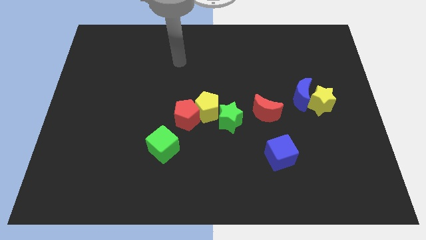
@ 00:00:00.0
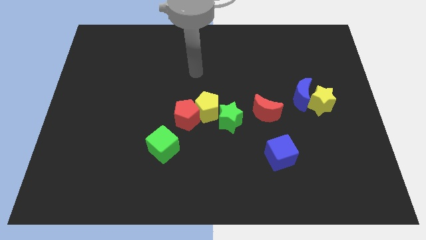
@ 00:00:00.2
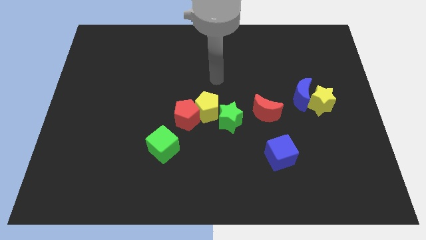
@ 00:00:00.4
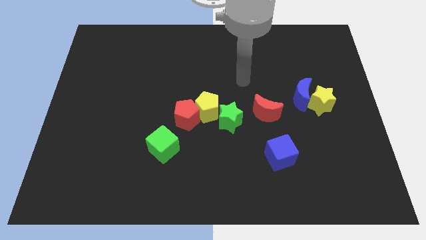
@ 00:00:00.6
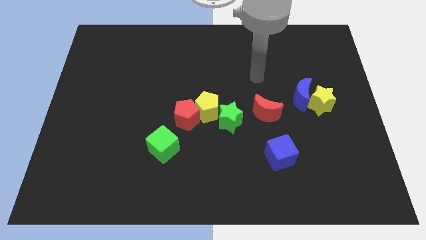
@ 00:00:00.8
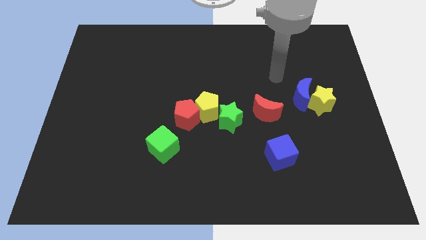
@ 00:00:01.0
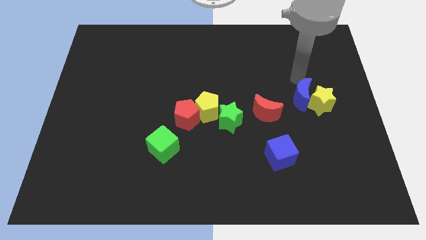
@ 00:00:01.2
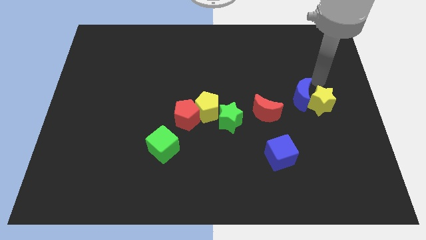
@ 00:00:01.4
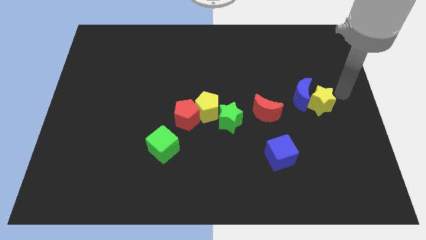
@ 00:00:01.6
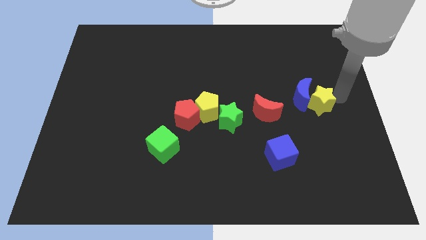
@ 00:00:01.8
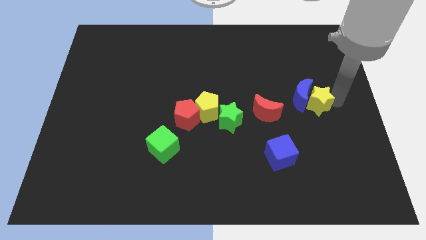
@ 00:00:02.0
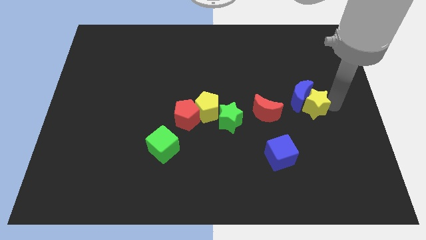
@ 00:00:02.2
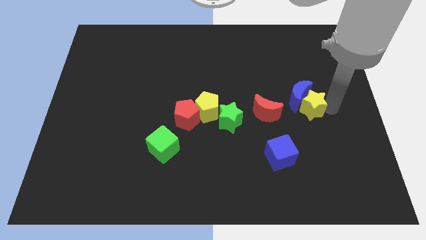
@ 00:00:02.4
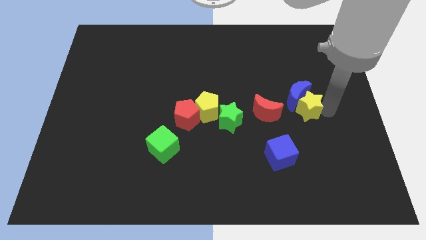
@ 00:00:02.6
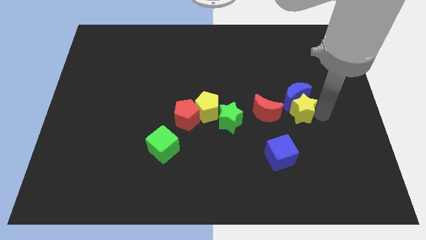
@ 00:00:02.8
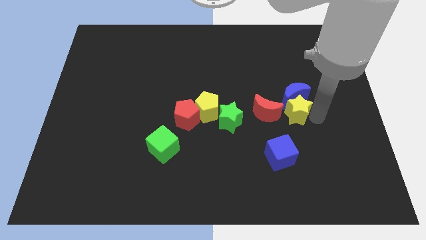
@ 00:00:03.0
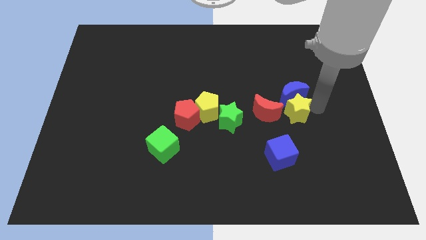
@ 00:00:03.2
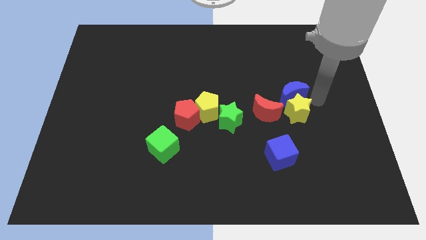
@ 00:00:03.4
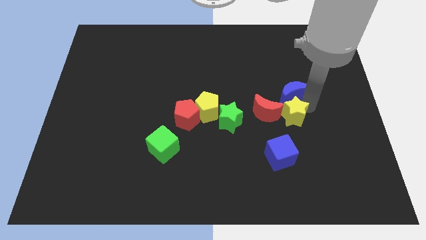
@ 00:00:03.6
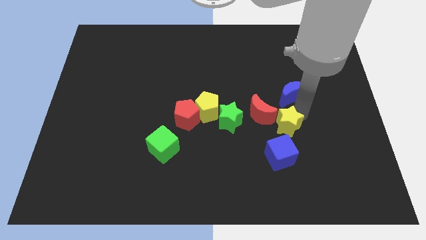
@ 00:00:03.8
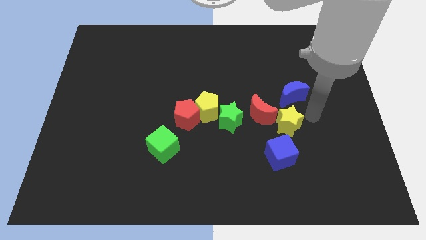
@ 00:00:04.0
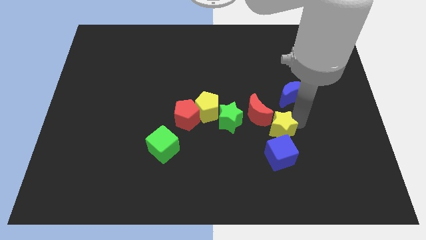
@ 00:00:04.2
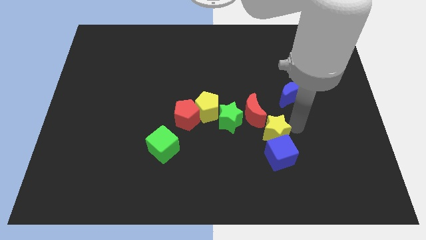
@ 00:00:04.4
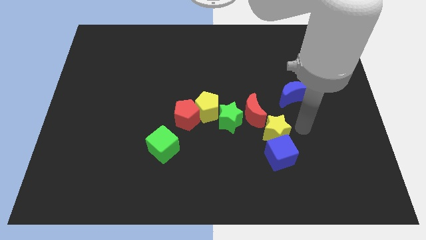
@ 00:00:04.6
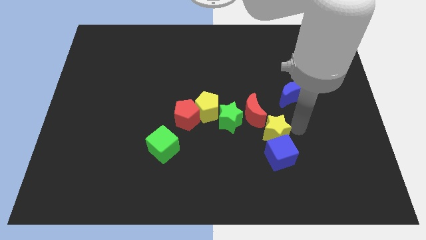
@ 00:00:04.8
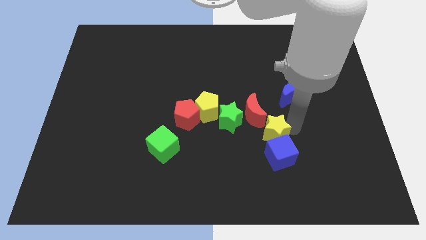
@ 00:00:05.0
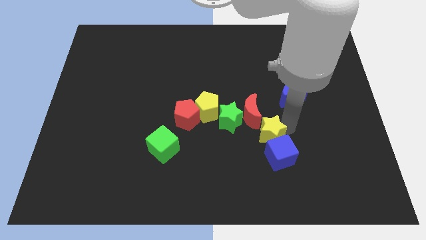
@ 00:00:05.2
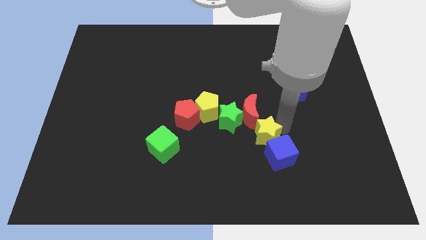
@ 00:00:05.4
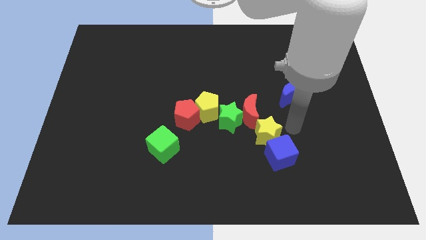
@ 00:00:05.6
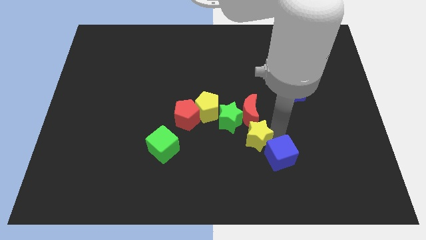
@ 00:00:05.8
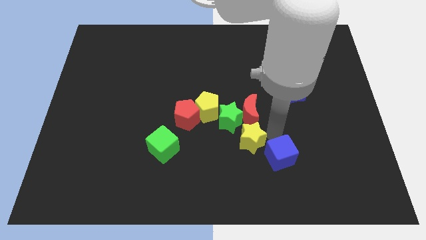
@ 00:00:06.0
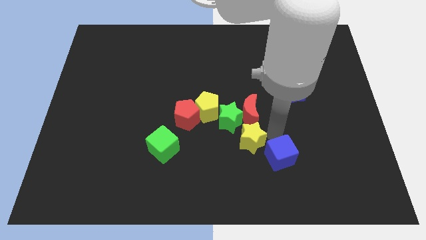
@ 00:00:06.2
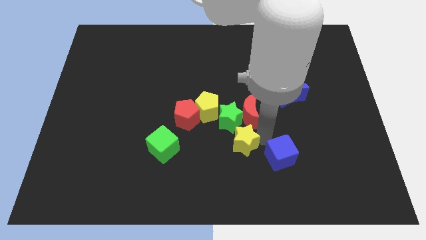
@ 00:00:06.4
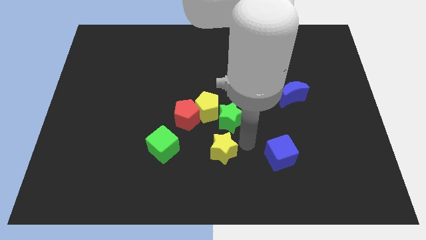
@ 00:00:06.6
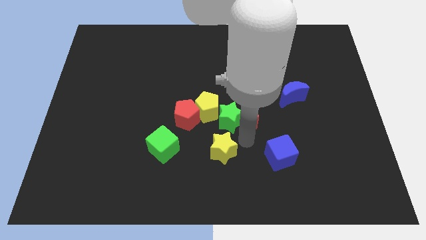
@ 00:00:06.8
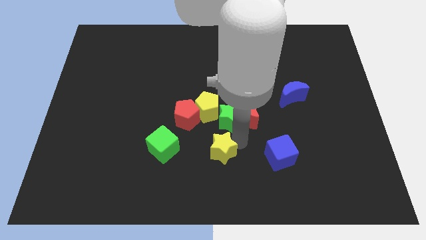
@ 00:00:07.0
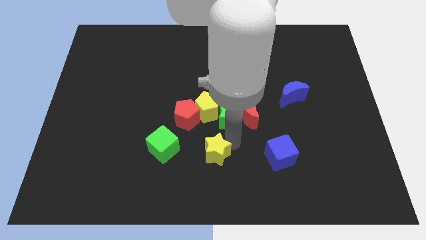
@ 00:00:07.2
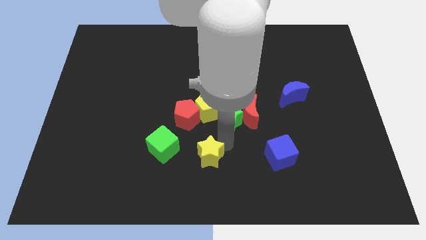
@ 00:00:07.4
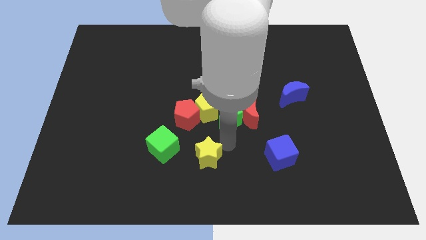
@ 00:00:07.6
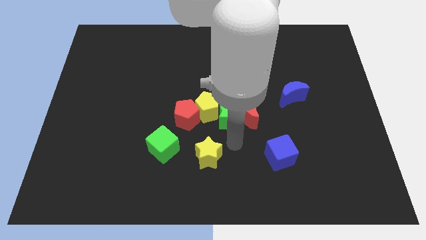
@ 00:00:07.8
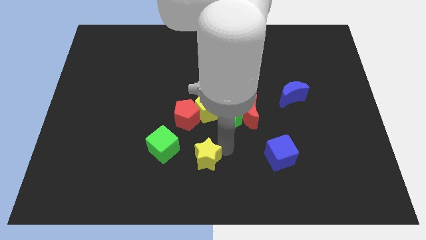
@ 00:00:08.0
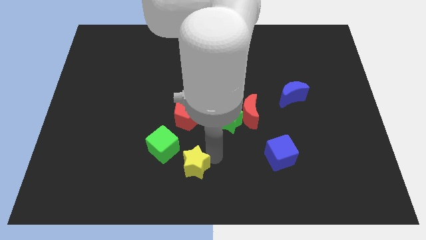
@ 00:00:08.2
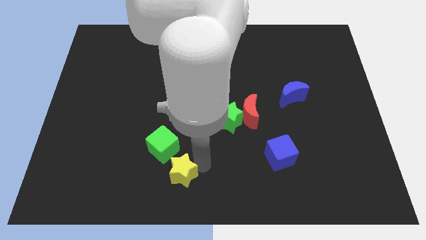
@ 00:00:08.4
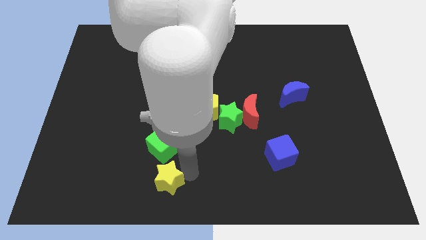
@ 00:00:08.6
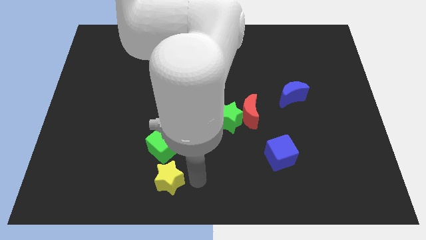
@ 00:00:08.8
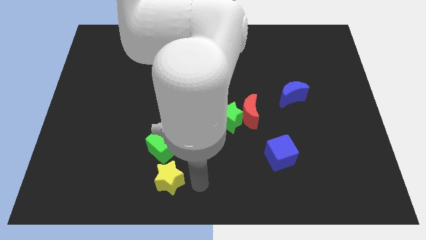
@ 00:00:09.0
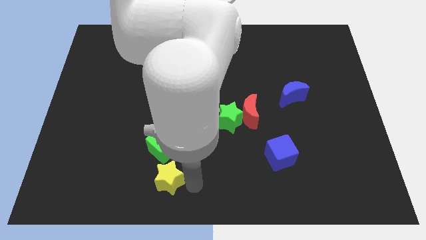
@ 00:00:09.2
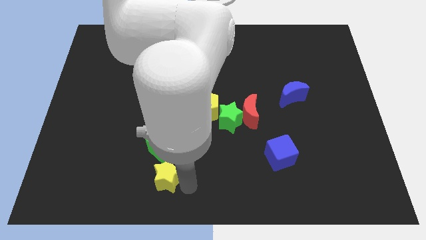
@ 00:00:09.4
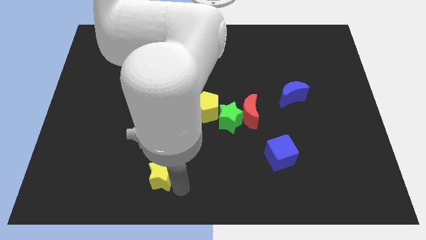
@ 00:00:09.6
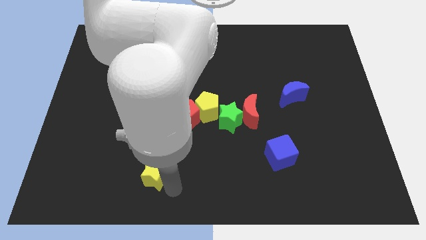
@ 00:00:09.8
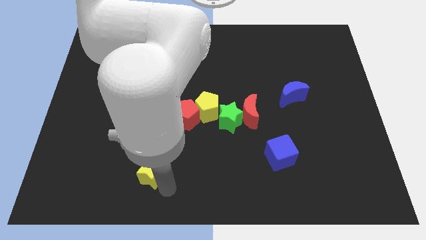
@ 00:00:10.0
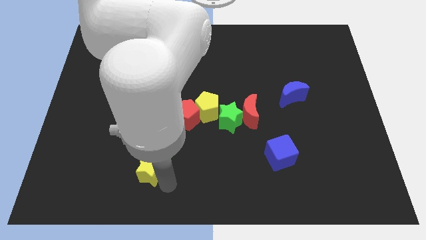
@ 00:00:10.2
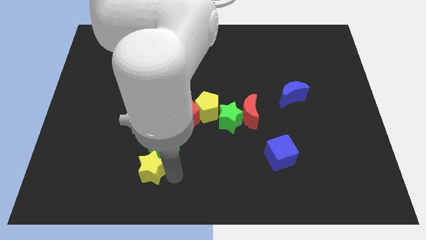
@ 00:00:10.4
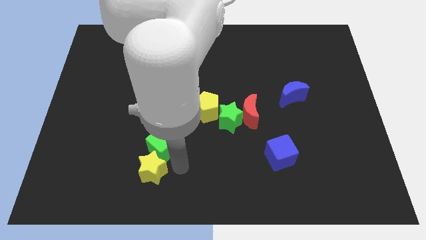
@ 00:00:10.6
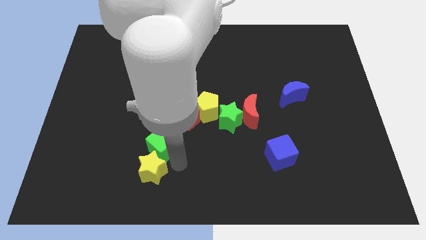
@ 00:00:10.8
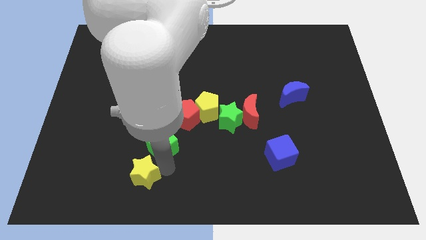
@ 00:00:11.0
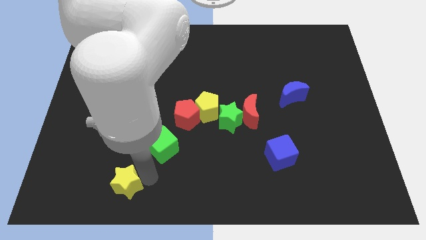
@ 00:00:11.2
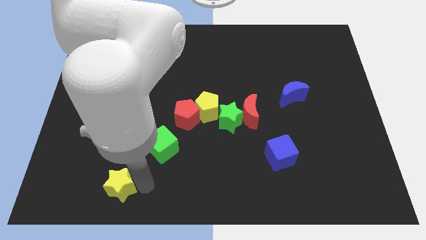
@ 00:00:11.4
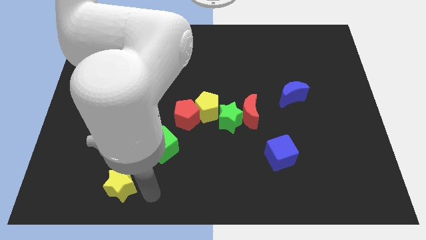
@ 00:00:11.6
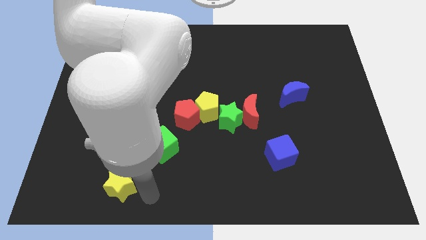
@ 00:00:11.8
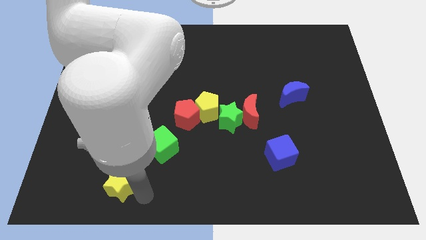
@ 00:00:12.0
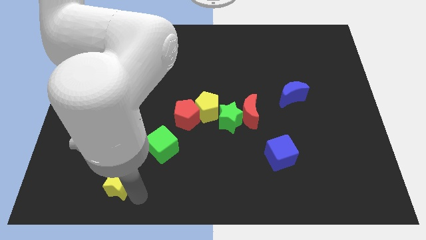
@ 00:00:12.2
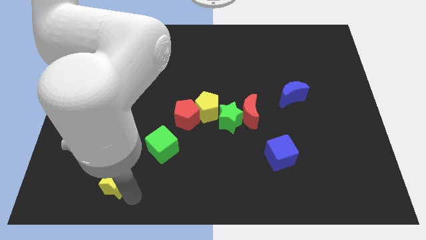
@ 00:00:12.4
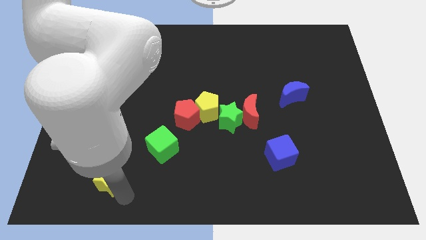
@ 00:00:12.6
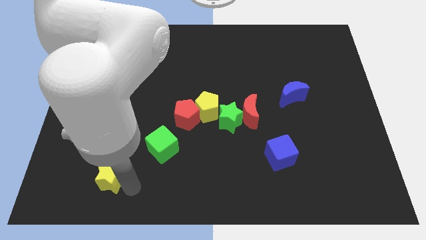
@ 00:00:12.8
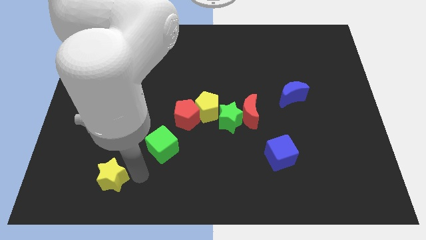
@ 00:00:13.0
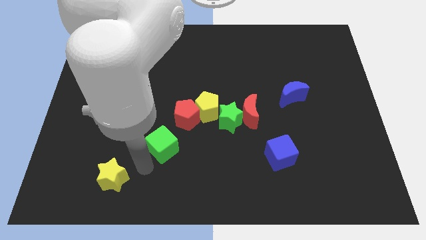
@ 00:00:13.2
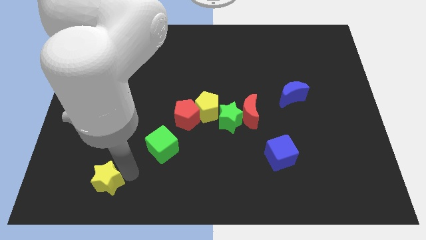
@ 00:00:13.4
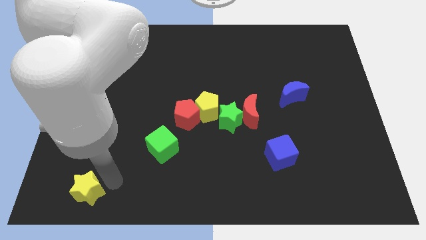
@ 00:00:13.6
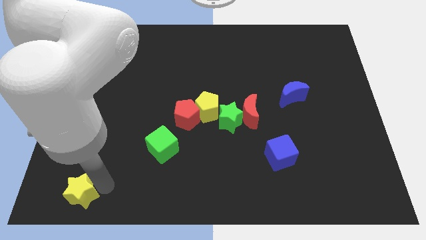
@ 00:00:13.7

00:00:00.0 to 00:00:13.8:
push the yellow star to the lower left corner
